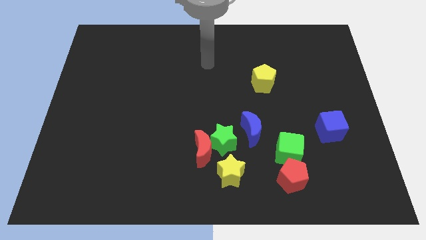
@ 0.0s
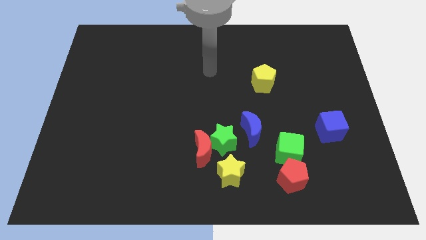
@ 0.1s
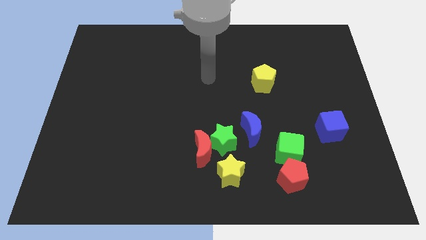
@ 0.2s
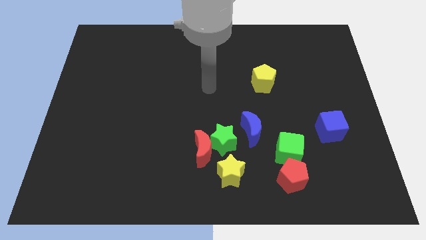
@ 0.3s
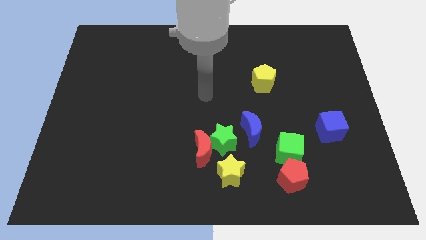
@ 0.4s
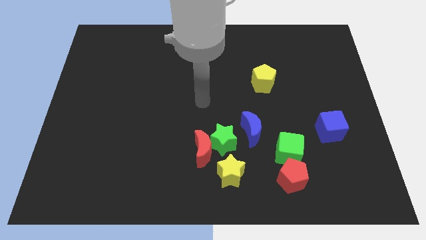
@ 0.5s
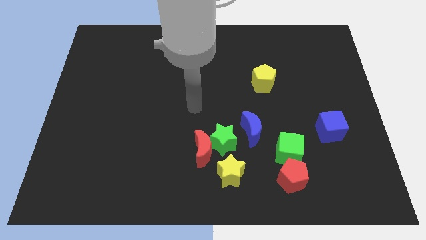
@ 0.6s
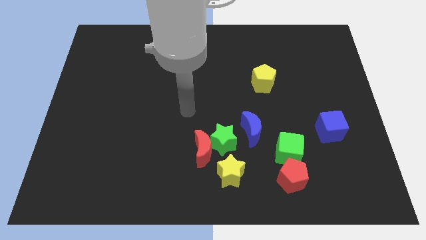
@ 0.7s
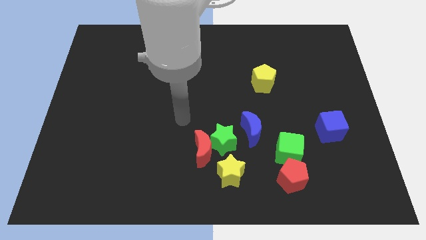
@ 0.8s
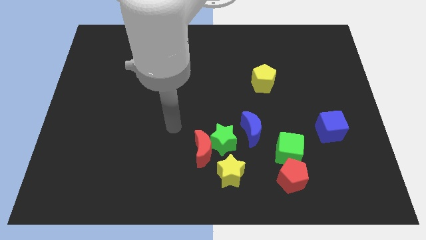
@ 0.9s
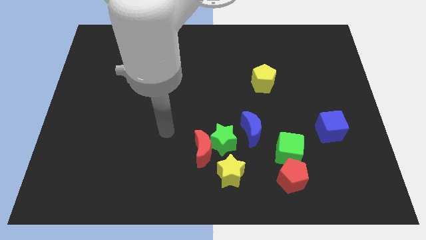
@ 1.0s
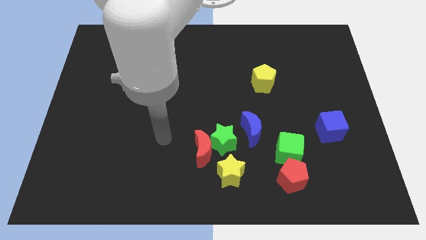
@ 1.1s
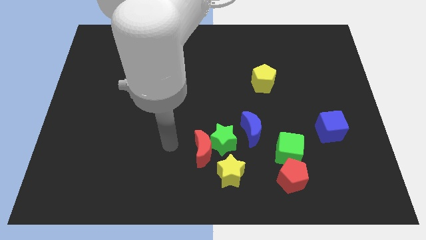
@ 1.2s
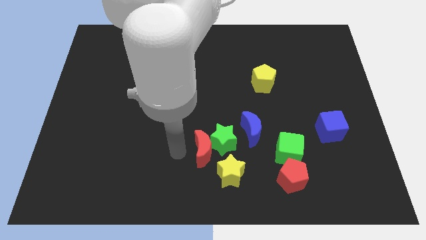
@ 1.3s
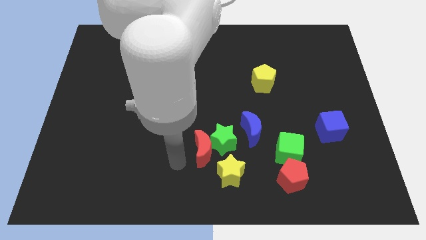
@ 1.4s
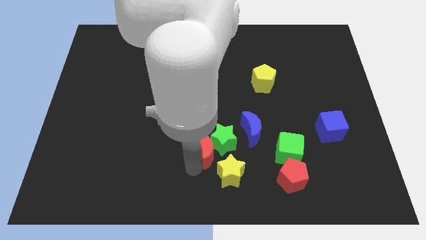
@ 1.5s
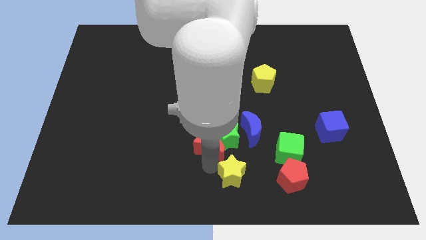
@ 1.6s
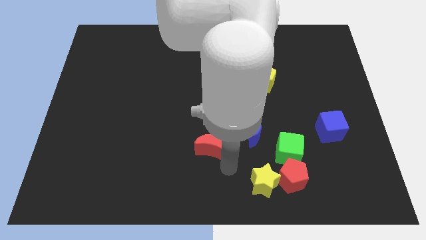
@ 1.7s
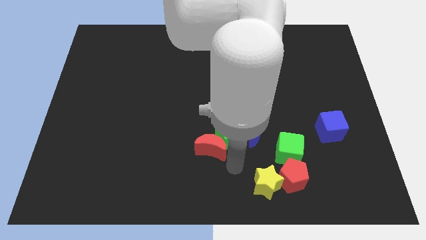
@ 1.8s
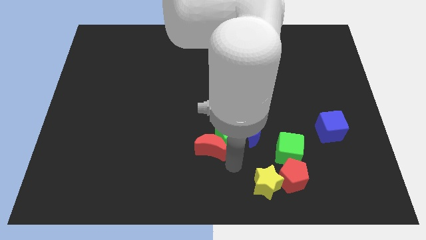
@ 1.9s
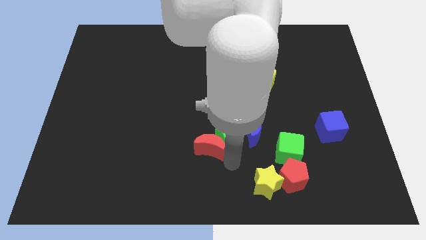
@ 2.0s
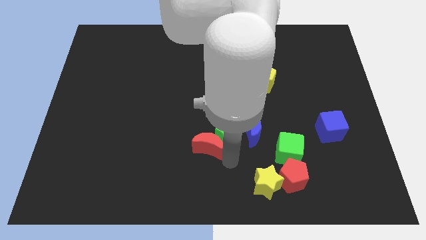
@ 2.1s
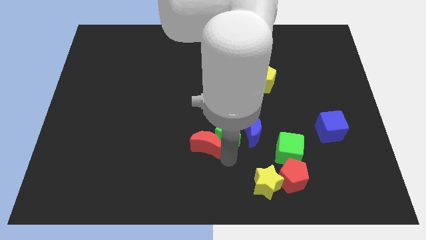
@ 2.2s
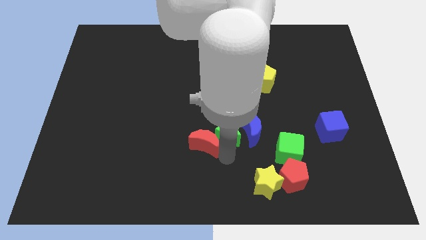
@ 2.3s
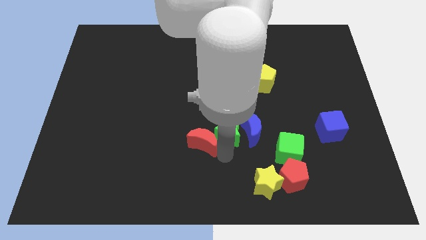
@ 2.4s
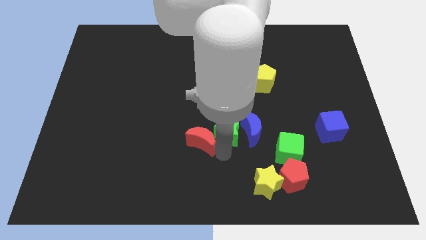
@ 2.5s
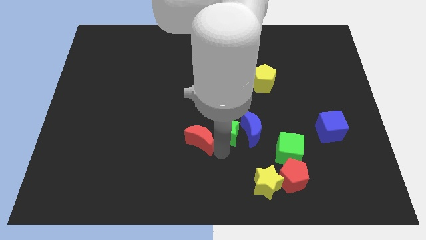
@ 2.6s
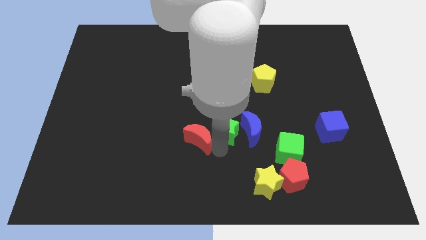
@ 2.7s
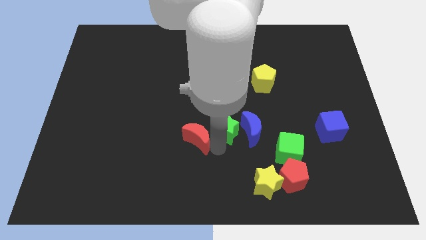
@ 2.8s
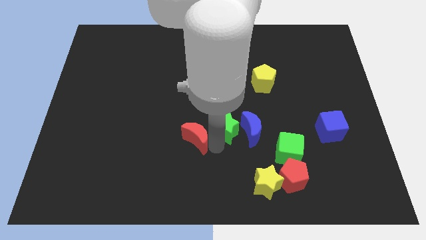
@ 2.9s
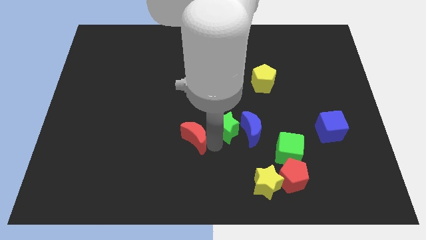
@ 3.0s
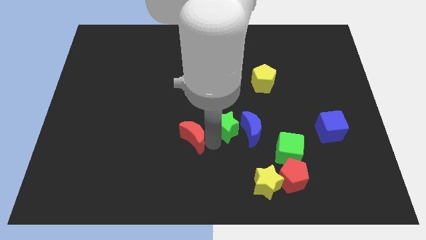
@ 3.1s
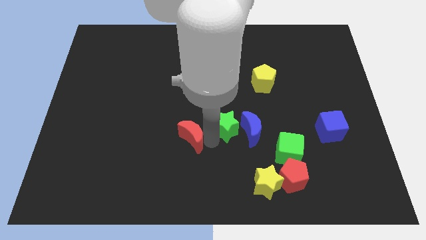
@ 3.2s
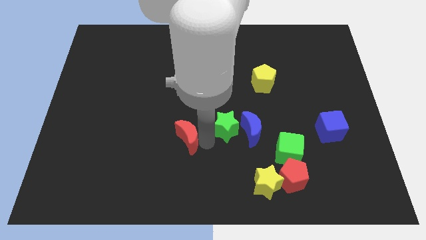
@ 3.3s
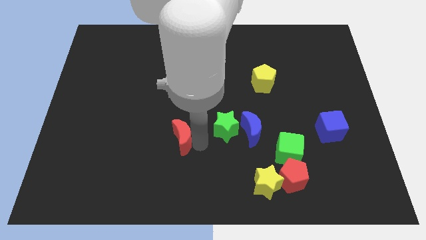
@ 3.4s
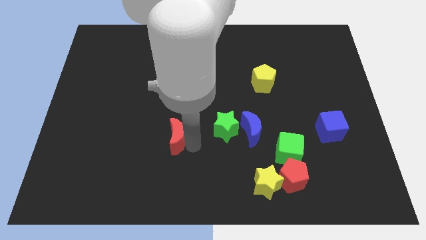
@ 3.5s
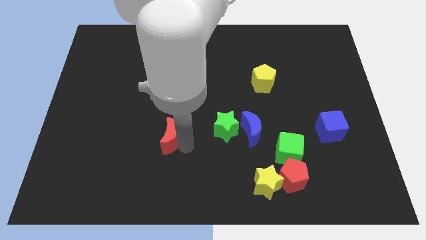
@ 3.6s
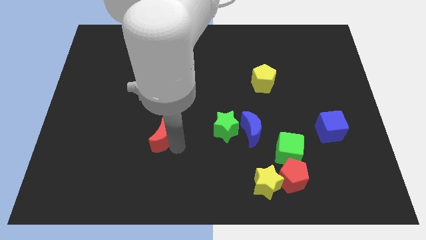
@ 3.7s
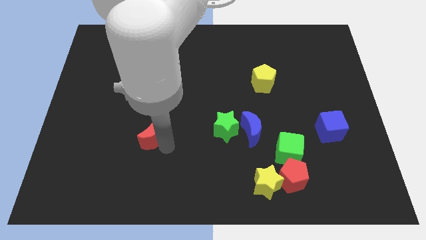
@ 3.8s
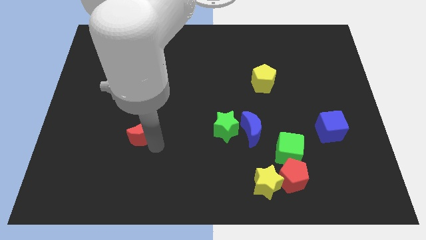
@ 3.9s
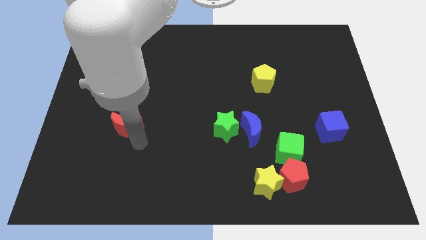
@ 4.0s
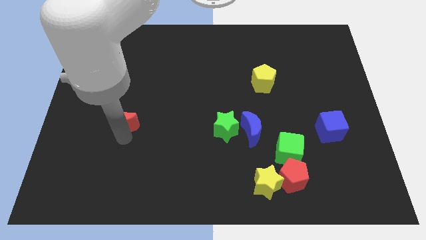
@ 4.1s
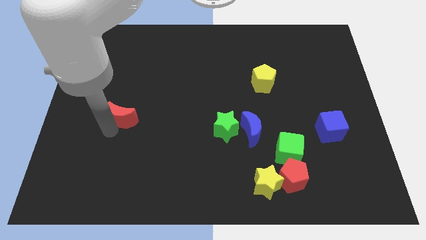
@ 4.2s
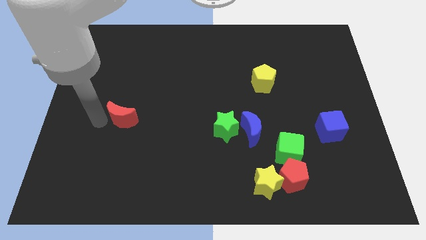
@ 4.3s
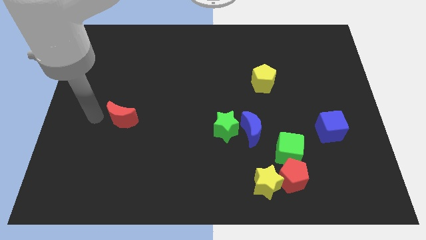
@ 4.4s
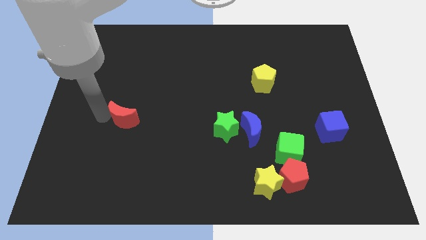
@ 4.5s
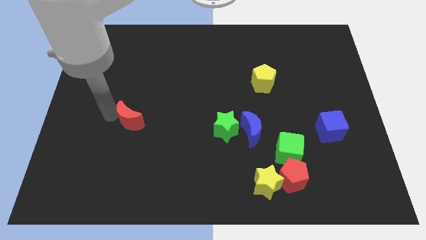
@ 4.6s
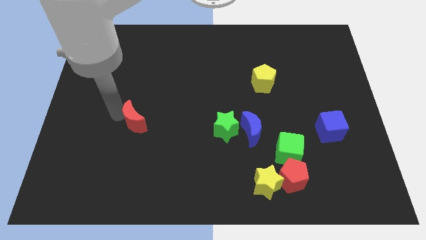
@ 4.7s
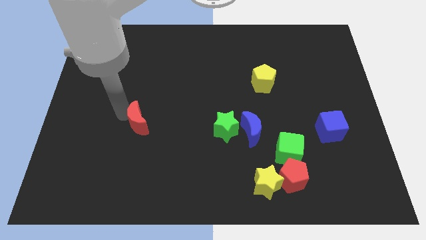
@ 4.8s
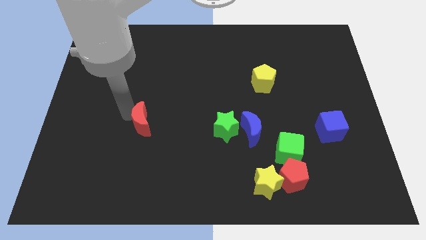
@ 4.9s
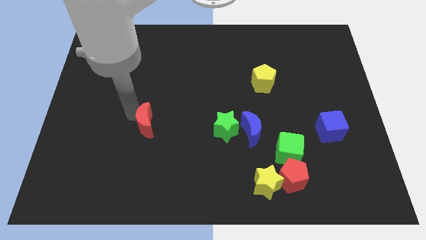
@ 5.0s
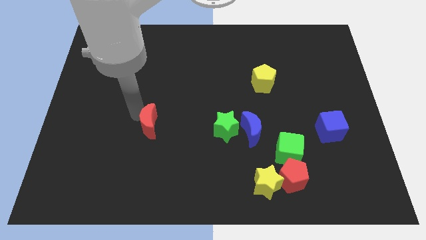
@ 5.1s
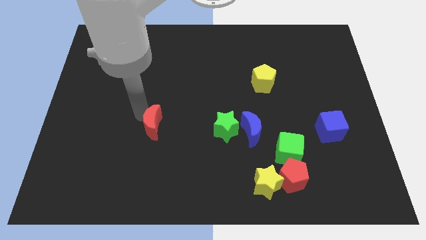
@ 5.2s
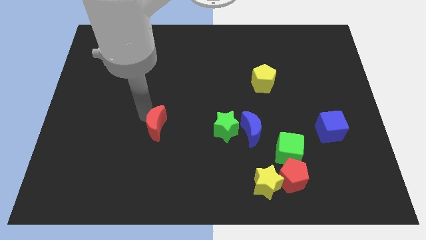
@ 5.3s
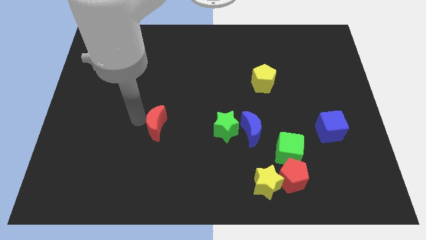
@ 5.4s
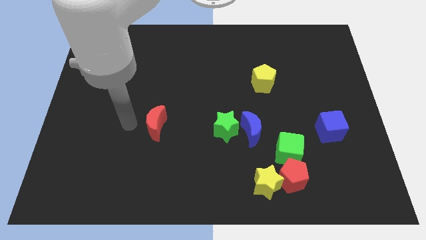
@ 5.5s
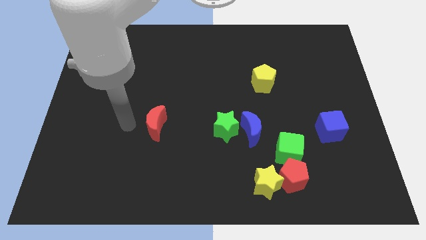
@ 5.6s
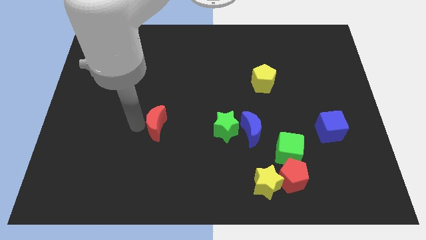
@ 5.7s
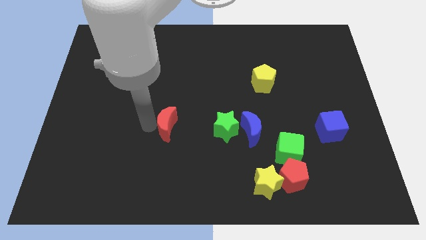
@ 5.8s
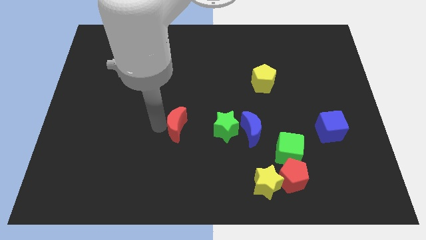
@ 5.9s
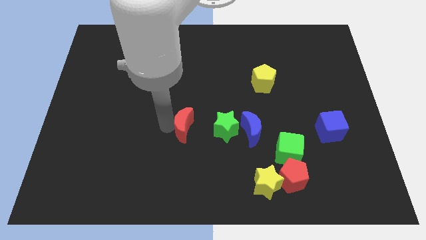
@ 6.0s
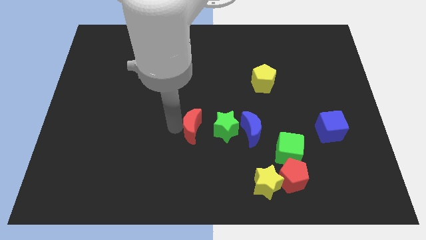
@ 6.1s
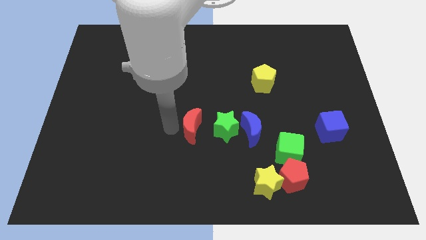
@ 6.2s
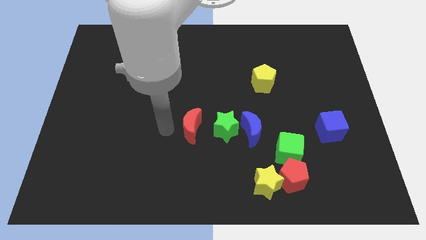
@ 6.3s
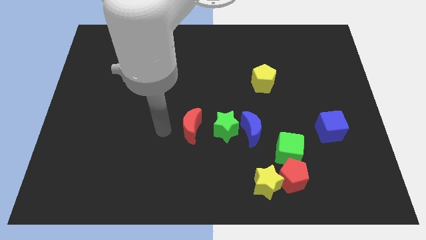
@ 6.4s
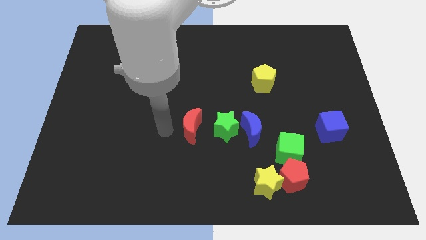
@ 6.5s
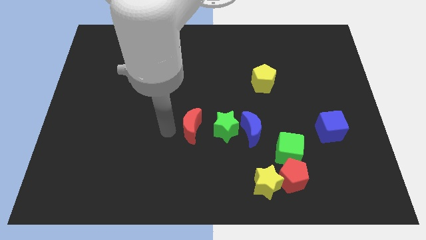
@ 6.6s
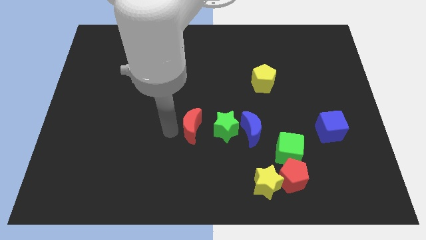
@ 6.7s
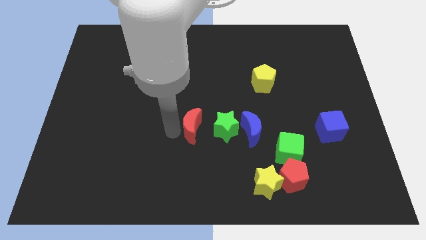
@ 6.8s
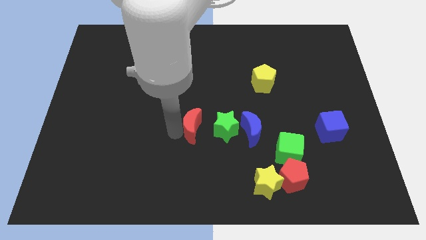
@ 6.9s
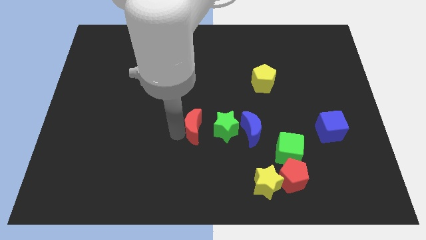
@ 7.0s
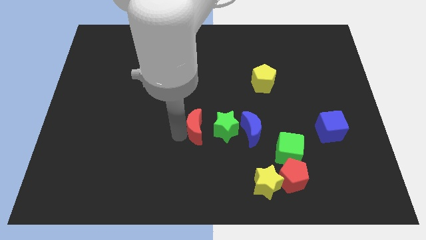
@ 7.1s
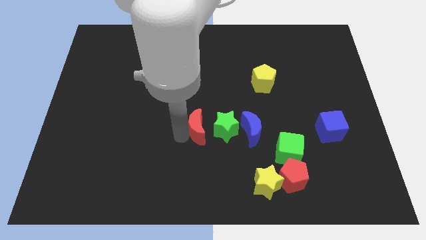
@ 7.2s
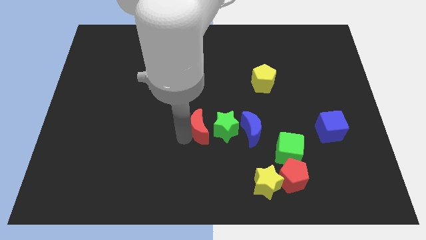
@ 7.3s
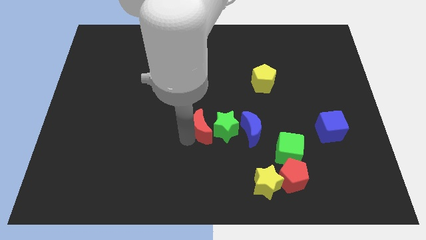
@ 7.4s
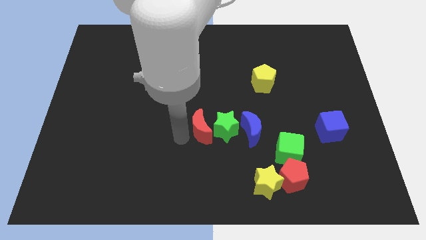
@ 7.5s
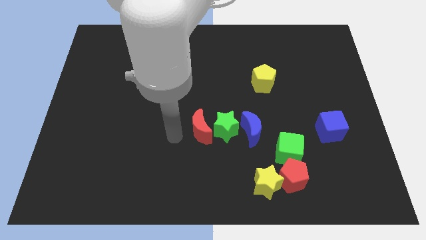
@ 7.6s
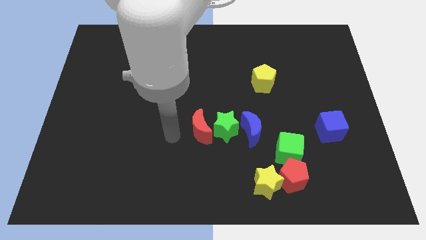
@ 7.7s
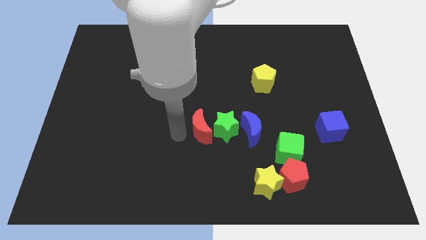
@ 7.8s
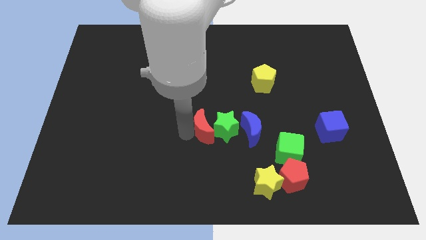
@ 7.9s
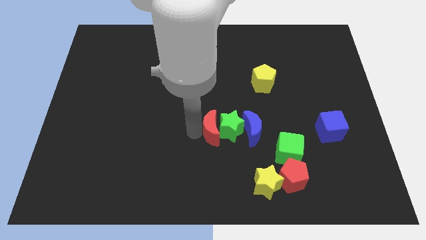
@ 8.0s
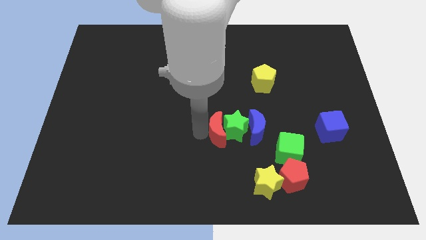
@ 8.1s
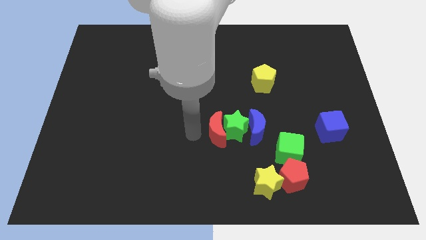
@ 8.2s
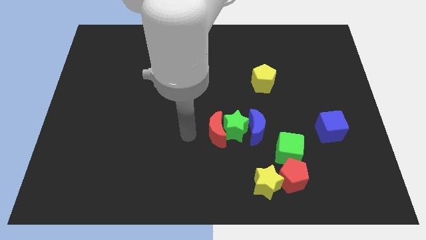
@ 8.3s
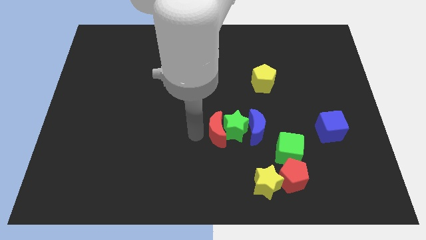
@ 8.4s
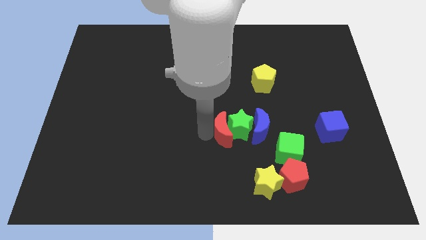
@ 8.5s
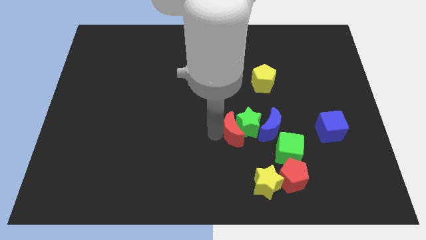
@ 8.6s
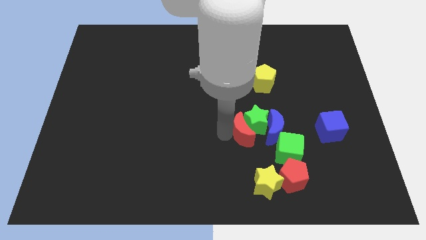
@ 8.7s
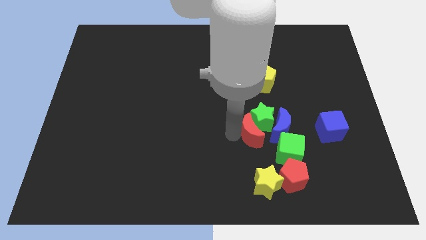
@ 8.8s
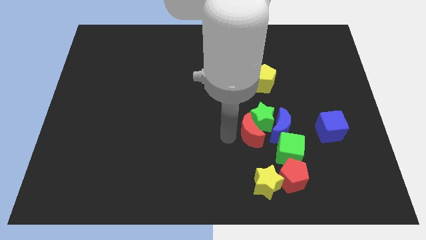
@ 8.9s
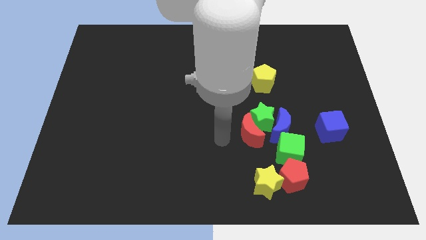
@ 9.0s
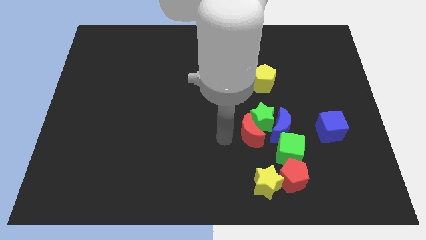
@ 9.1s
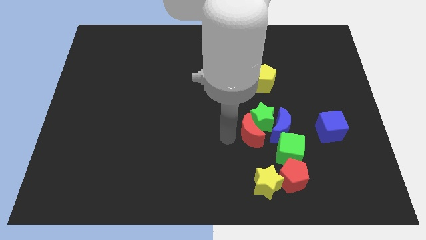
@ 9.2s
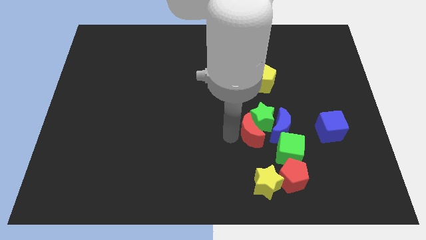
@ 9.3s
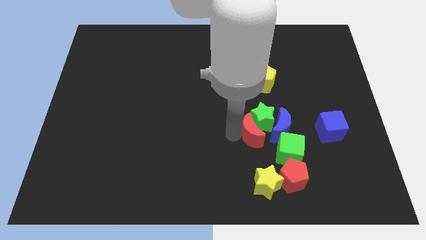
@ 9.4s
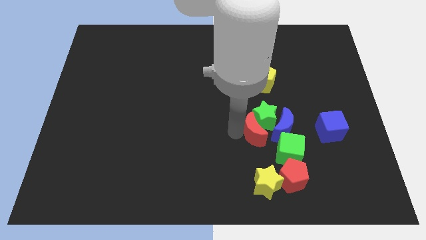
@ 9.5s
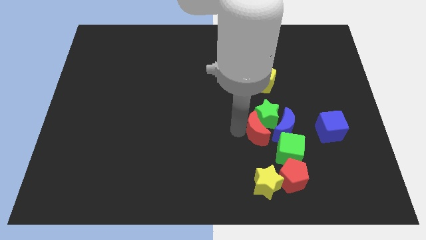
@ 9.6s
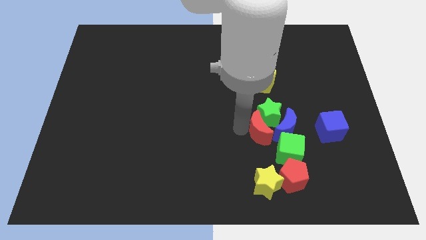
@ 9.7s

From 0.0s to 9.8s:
push the red moon next to the blue moon
